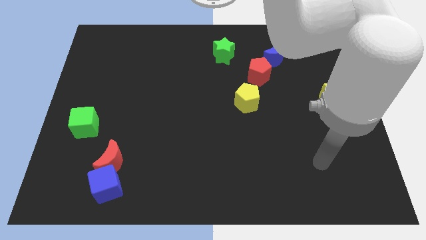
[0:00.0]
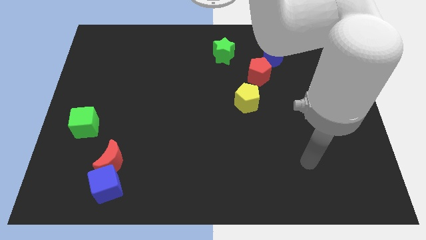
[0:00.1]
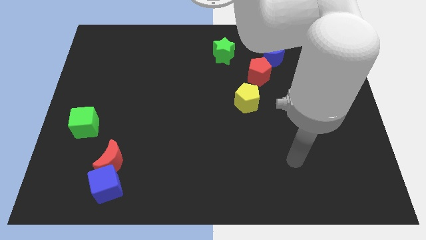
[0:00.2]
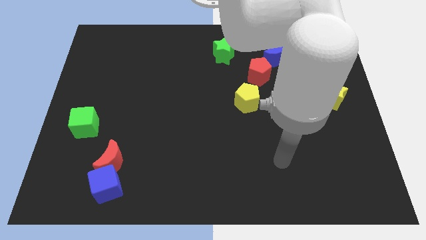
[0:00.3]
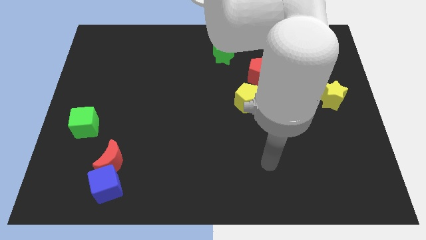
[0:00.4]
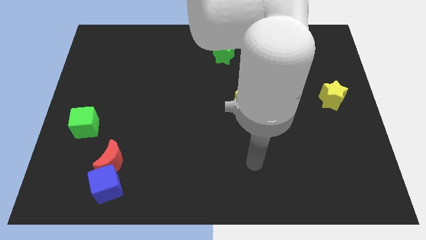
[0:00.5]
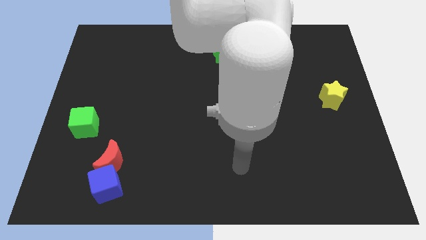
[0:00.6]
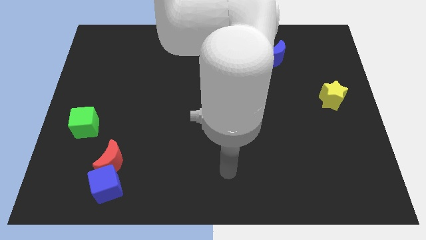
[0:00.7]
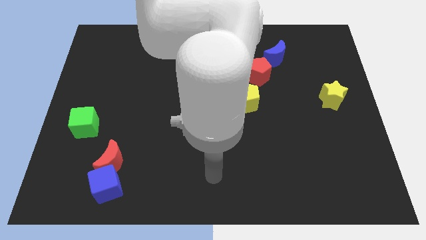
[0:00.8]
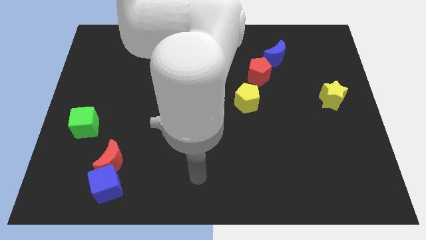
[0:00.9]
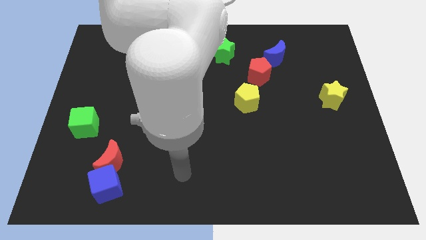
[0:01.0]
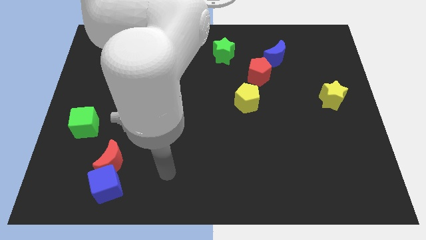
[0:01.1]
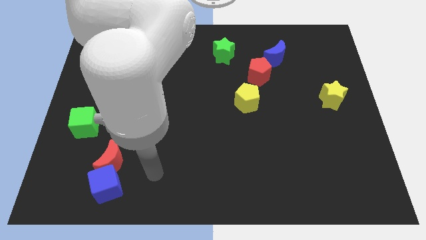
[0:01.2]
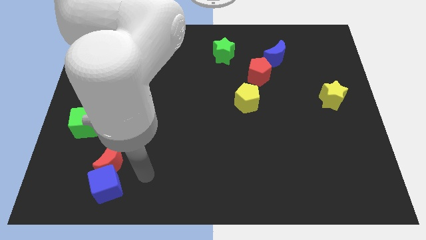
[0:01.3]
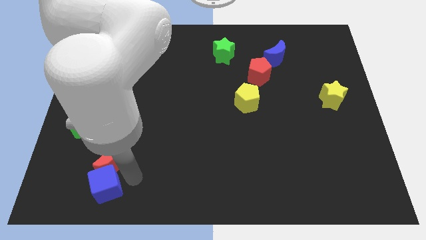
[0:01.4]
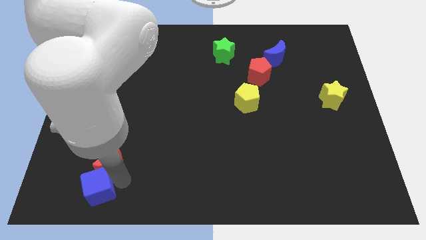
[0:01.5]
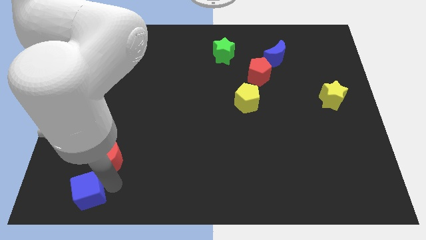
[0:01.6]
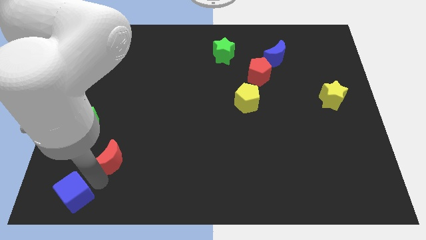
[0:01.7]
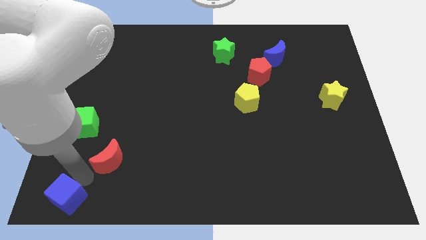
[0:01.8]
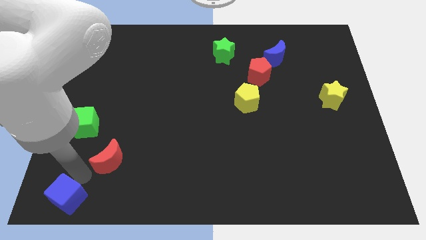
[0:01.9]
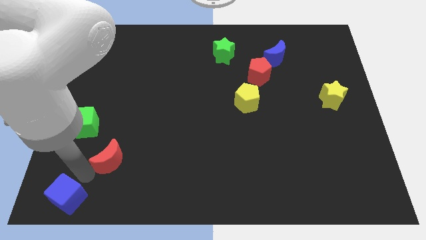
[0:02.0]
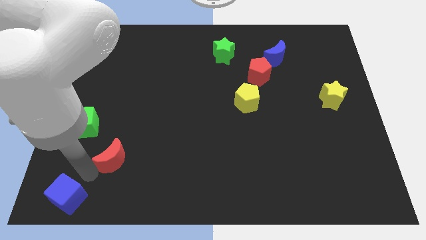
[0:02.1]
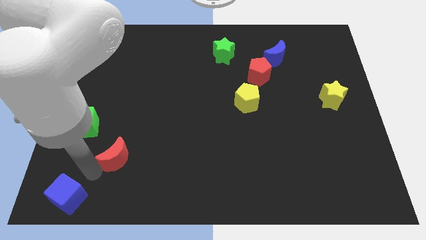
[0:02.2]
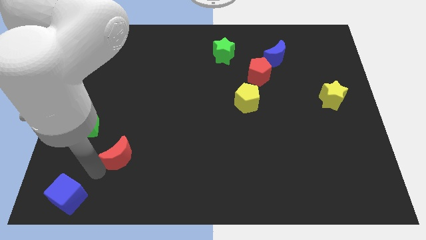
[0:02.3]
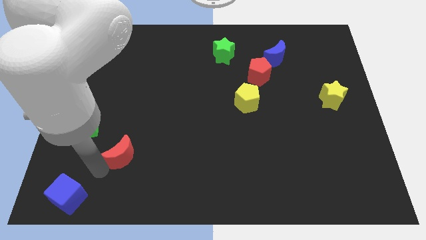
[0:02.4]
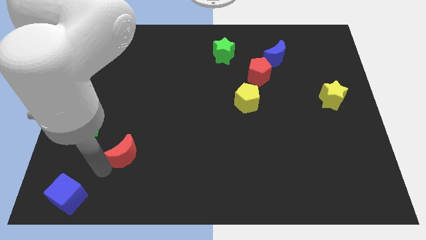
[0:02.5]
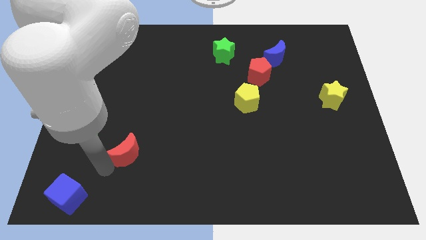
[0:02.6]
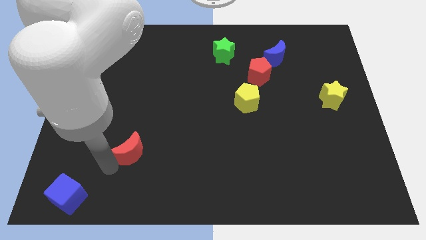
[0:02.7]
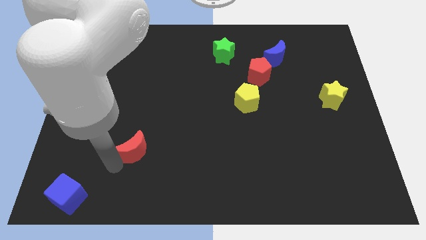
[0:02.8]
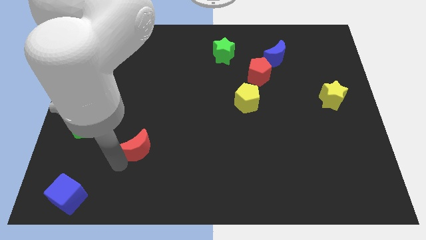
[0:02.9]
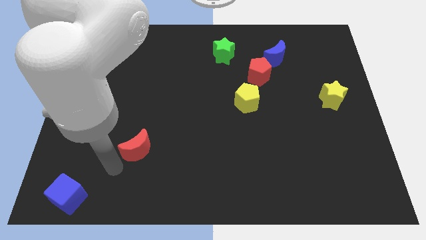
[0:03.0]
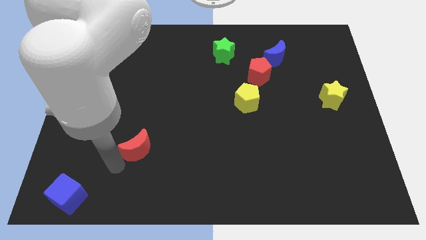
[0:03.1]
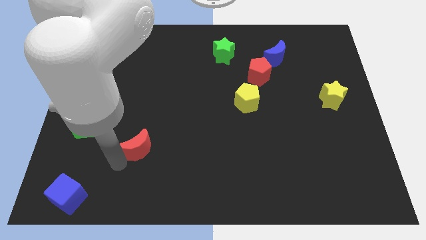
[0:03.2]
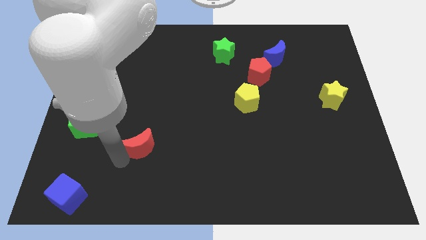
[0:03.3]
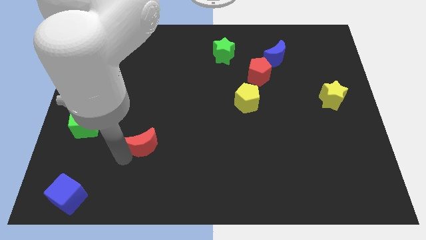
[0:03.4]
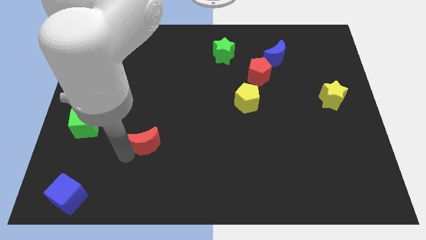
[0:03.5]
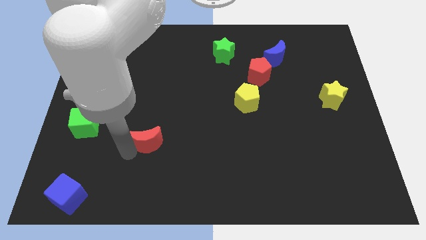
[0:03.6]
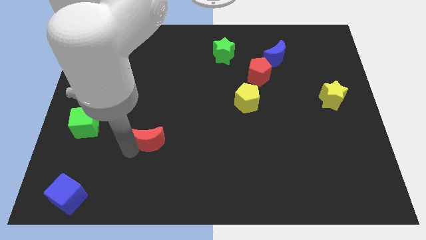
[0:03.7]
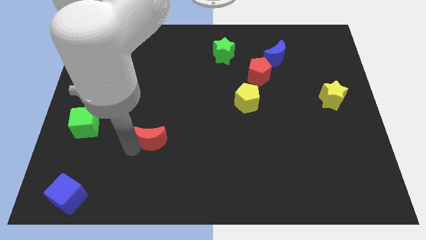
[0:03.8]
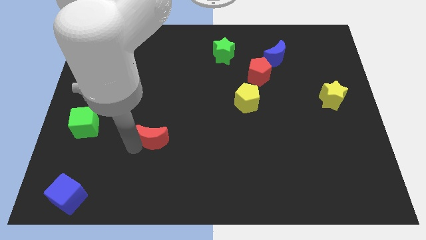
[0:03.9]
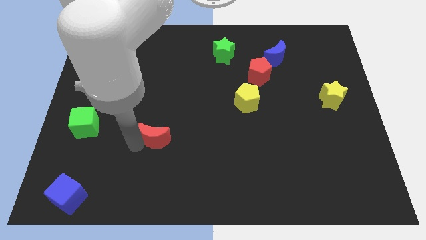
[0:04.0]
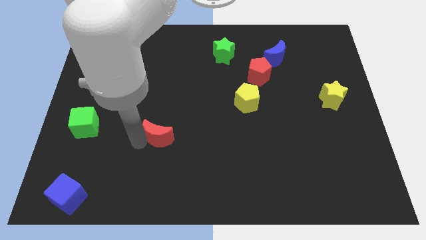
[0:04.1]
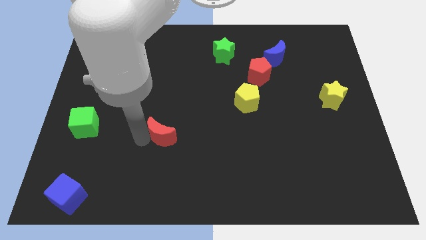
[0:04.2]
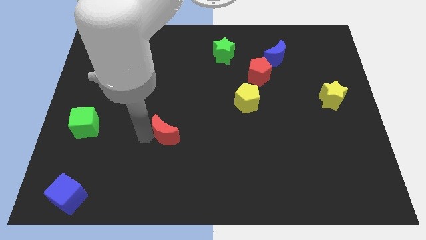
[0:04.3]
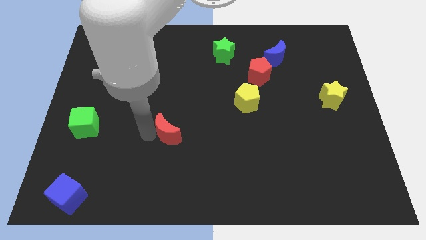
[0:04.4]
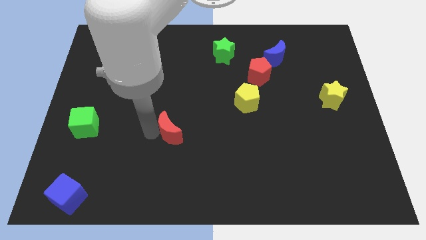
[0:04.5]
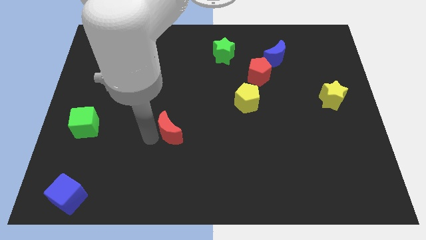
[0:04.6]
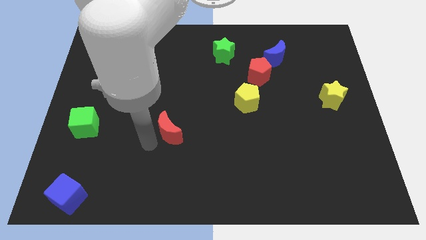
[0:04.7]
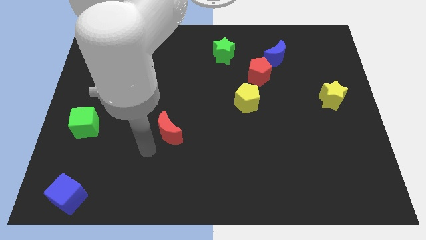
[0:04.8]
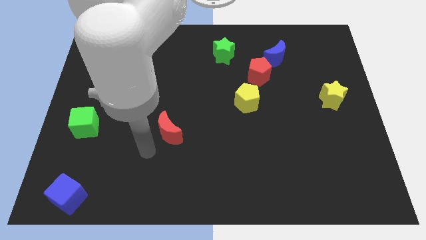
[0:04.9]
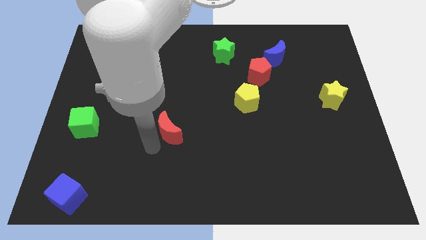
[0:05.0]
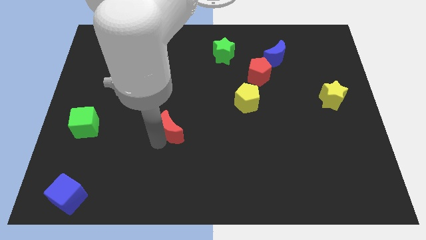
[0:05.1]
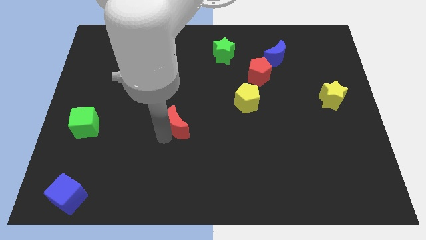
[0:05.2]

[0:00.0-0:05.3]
slide the red moon to the center of the board
